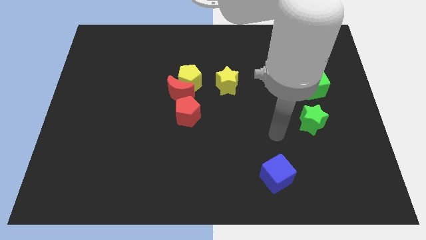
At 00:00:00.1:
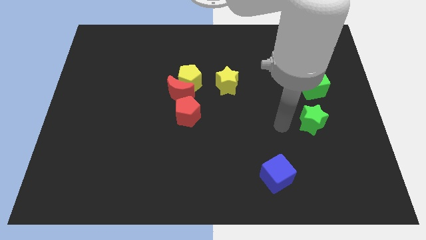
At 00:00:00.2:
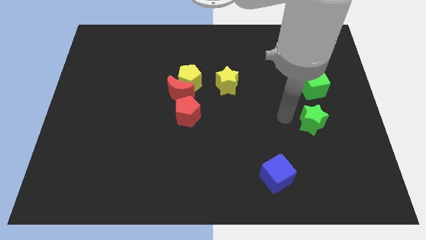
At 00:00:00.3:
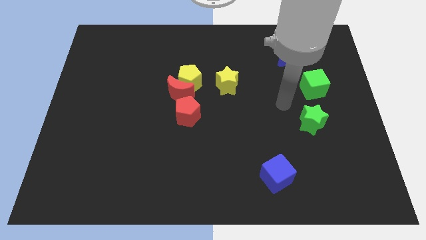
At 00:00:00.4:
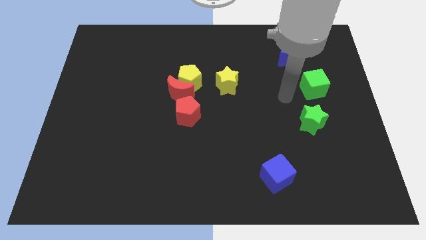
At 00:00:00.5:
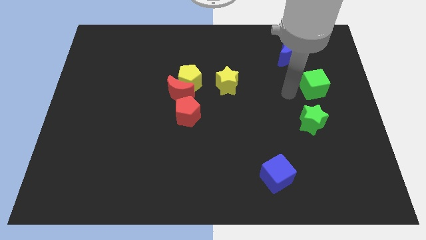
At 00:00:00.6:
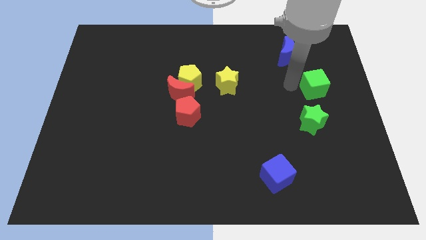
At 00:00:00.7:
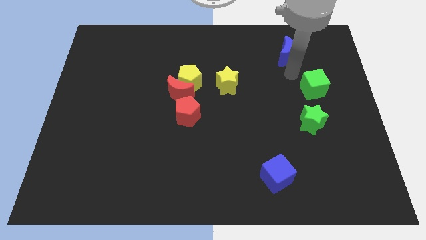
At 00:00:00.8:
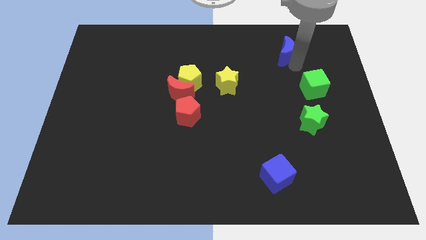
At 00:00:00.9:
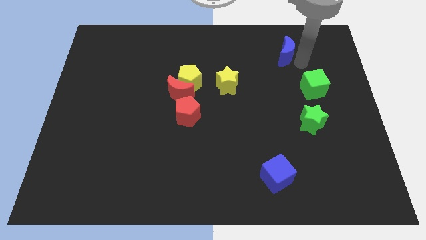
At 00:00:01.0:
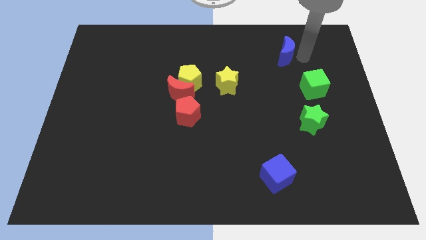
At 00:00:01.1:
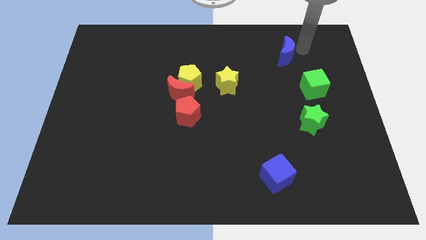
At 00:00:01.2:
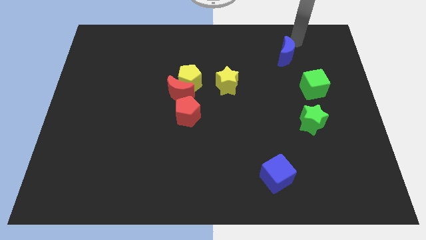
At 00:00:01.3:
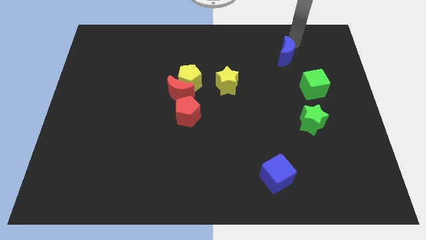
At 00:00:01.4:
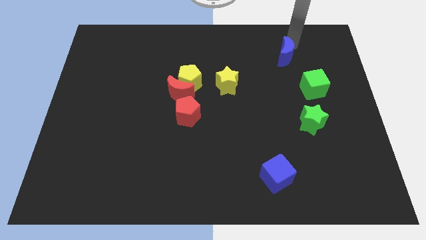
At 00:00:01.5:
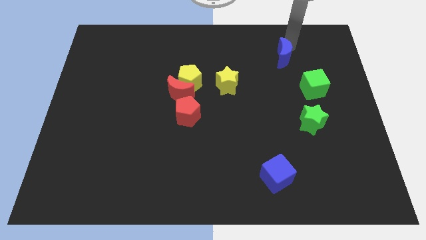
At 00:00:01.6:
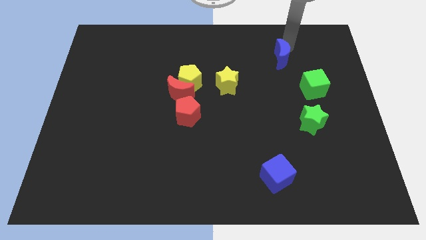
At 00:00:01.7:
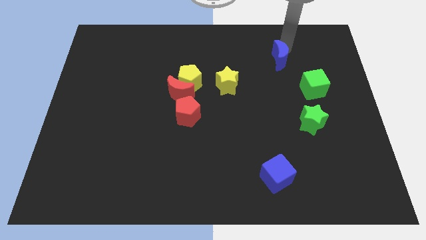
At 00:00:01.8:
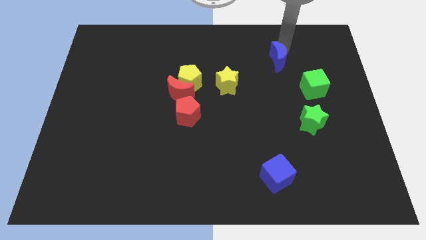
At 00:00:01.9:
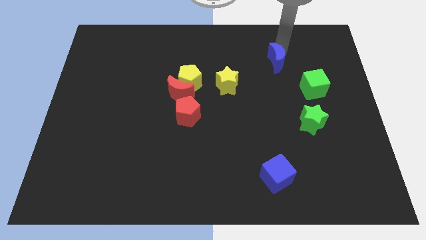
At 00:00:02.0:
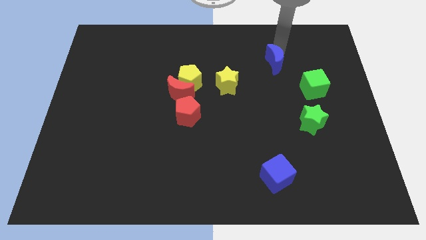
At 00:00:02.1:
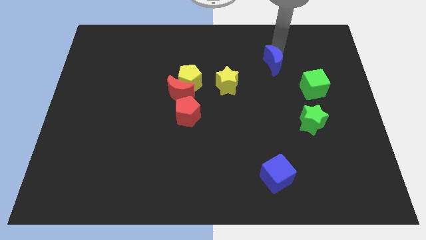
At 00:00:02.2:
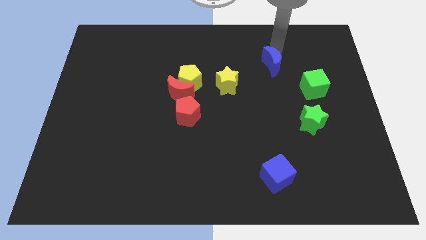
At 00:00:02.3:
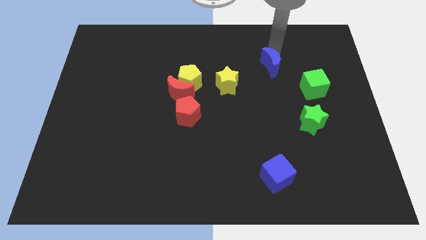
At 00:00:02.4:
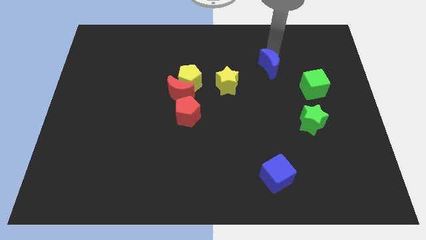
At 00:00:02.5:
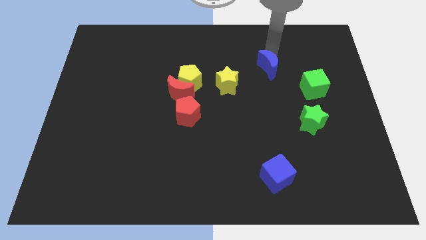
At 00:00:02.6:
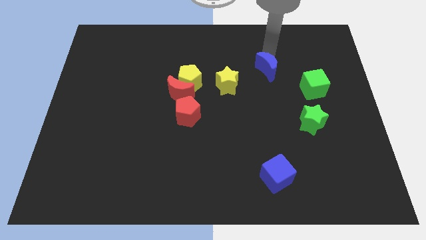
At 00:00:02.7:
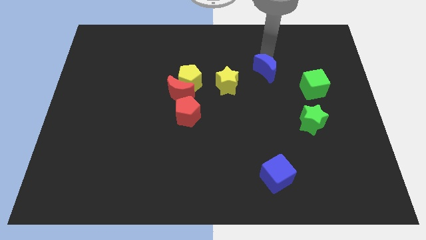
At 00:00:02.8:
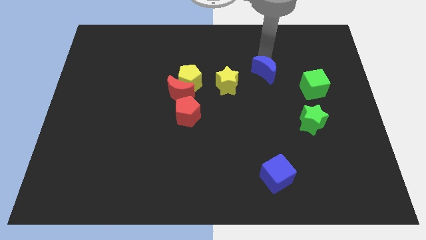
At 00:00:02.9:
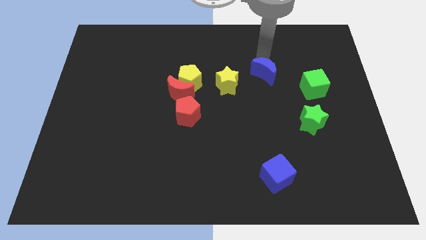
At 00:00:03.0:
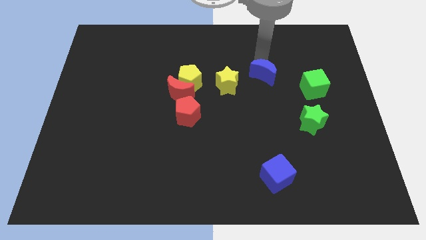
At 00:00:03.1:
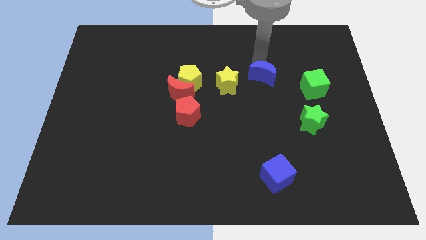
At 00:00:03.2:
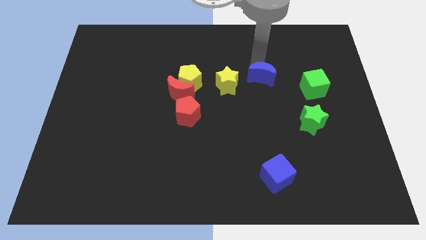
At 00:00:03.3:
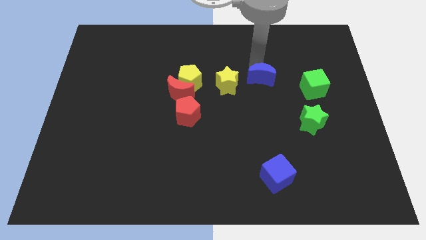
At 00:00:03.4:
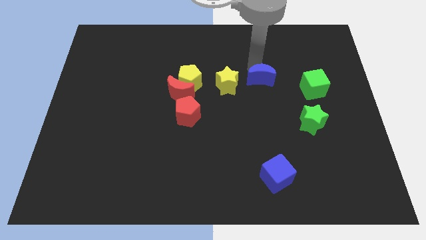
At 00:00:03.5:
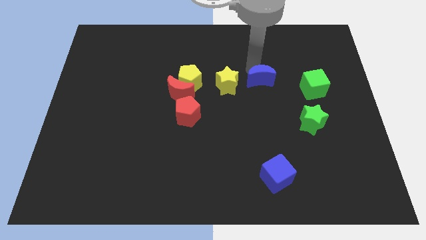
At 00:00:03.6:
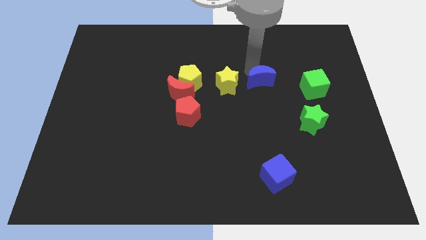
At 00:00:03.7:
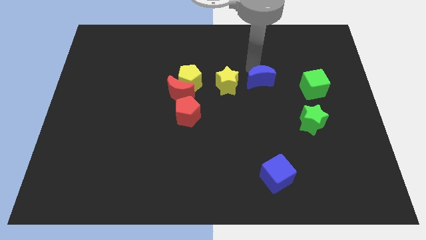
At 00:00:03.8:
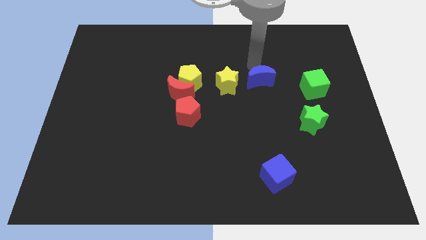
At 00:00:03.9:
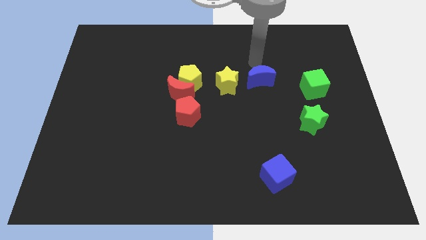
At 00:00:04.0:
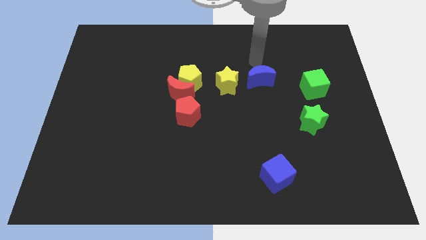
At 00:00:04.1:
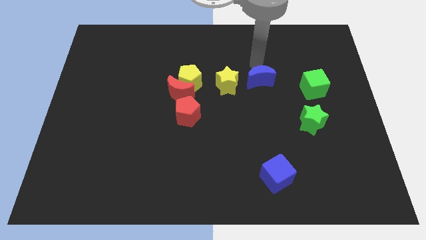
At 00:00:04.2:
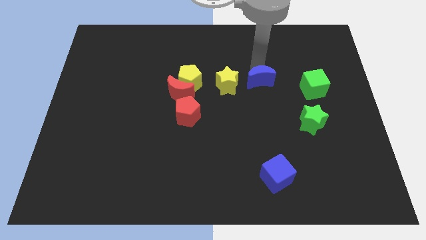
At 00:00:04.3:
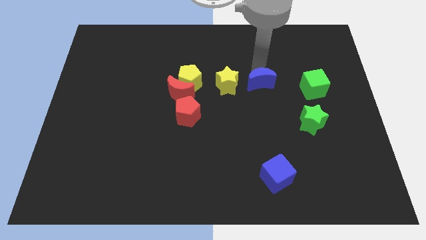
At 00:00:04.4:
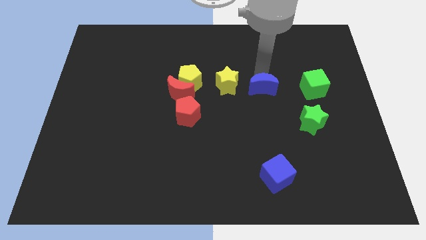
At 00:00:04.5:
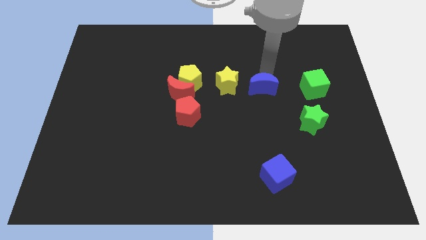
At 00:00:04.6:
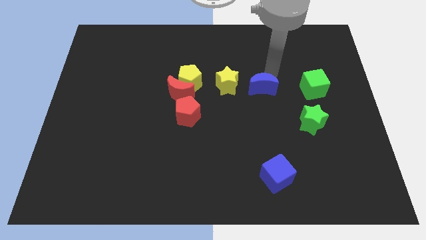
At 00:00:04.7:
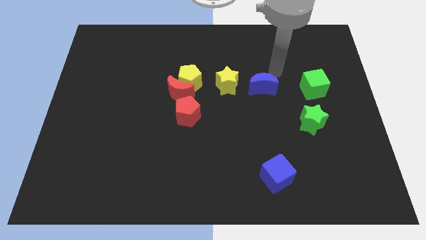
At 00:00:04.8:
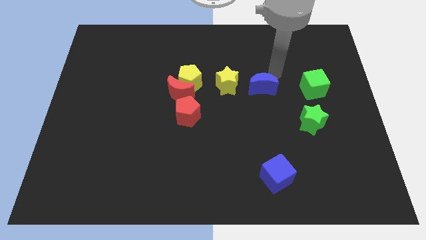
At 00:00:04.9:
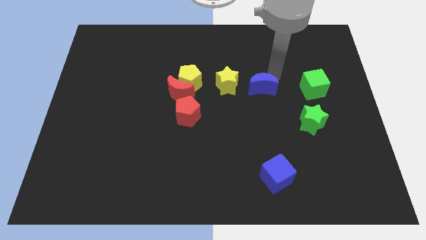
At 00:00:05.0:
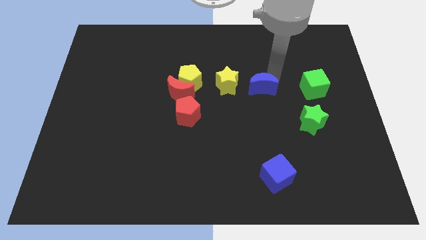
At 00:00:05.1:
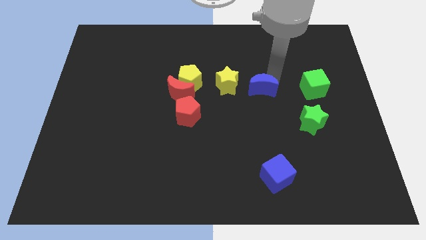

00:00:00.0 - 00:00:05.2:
slide the blue moon to the bottom right side of the yellow star

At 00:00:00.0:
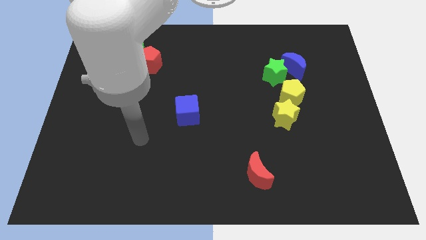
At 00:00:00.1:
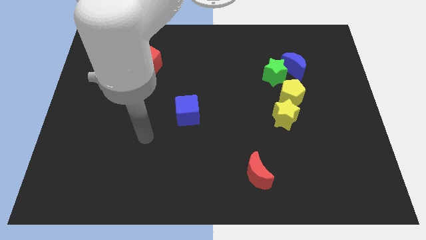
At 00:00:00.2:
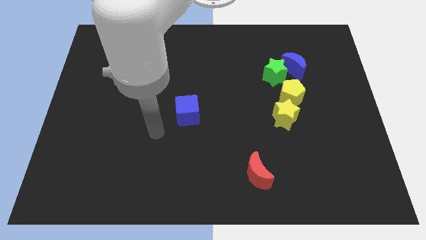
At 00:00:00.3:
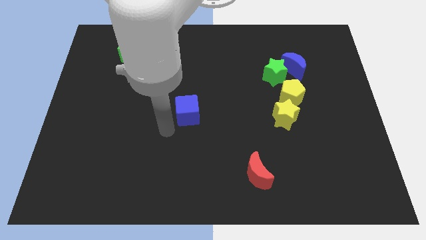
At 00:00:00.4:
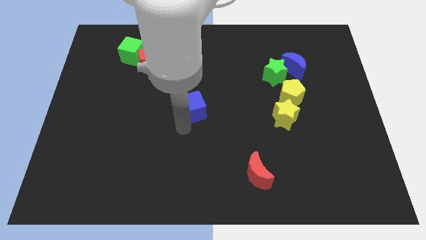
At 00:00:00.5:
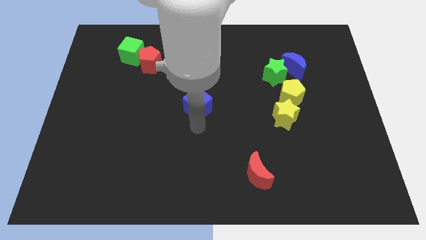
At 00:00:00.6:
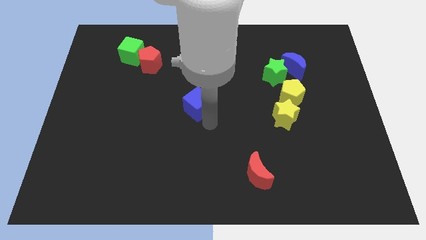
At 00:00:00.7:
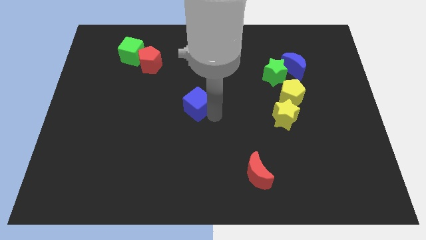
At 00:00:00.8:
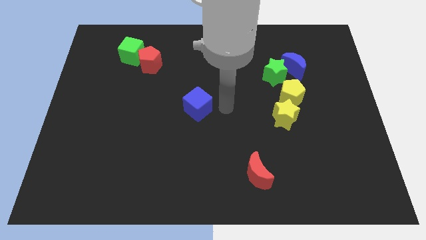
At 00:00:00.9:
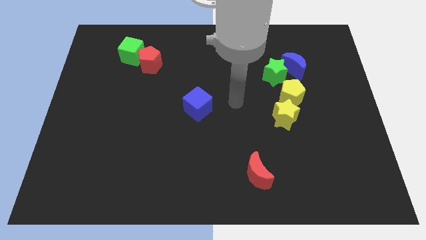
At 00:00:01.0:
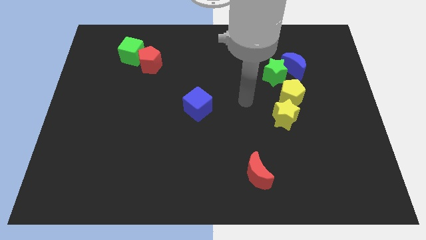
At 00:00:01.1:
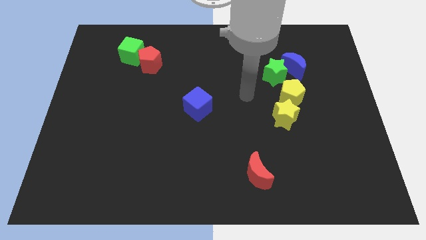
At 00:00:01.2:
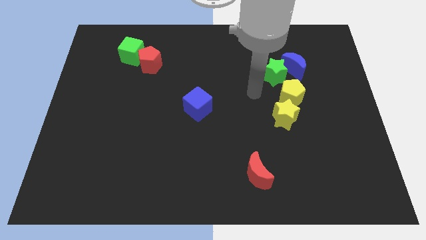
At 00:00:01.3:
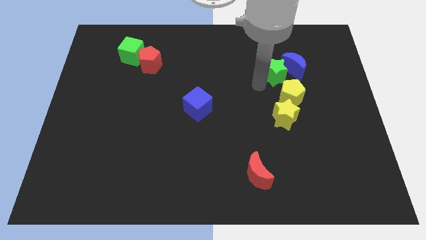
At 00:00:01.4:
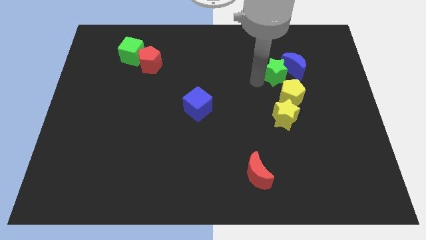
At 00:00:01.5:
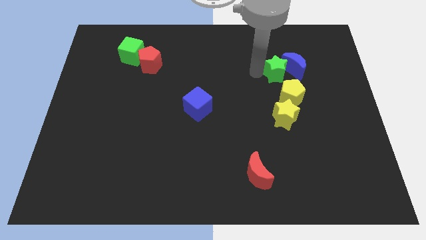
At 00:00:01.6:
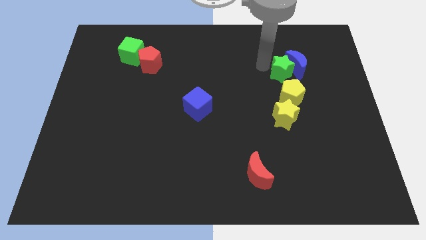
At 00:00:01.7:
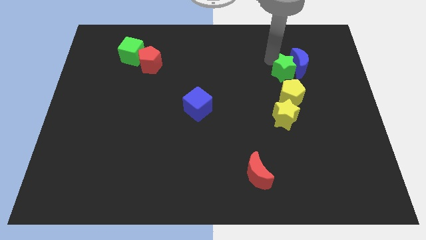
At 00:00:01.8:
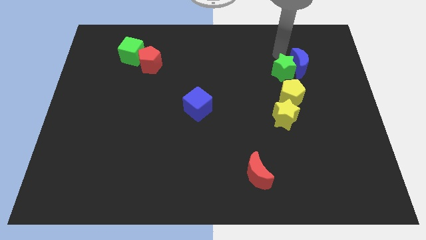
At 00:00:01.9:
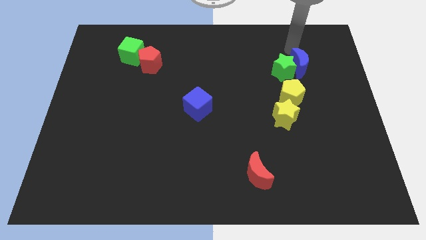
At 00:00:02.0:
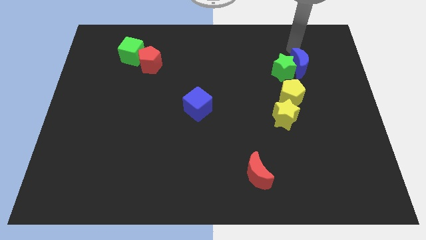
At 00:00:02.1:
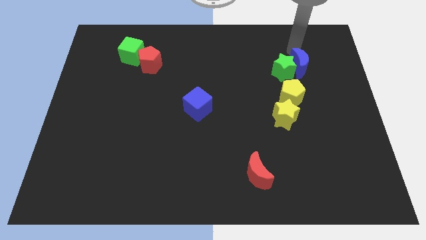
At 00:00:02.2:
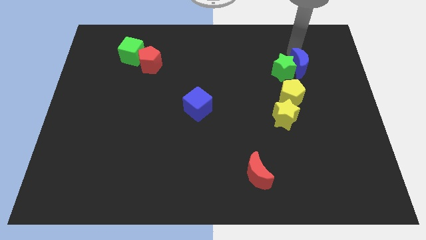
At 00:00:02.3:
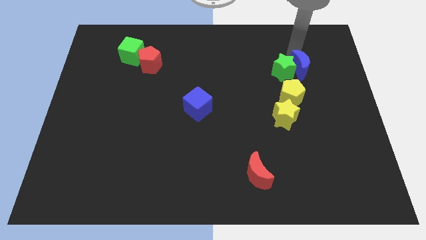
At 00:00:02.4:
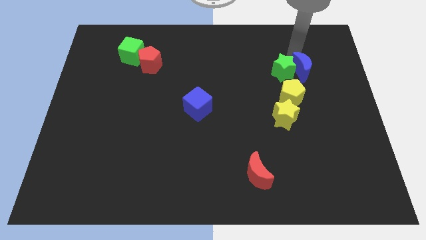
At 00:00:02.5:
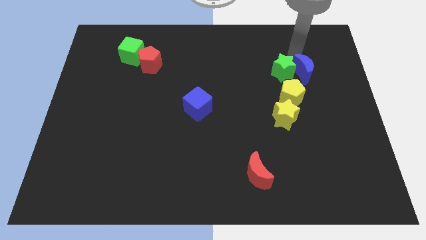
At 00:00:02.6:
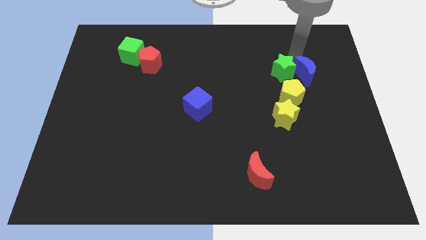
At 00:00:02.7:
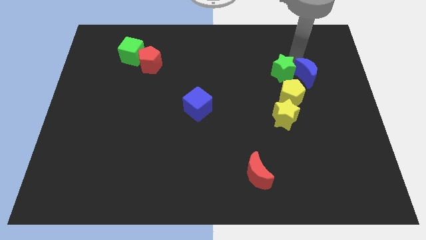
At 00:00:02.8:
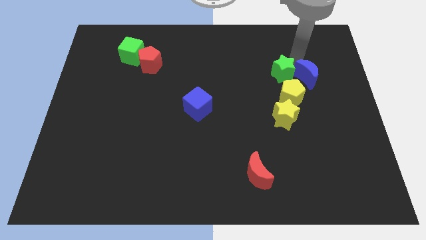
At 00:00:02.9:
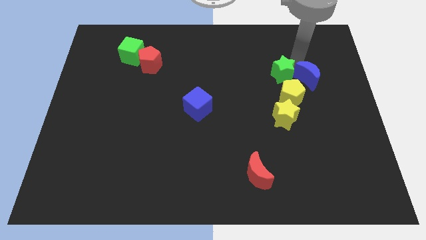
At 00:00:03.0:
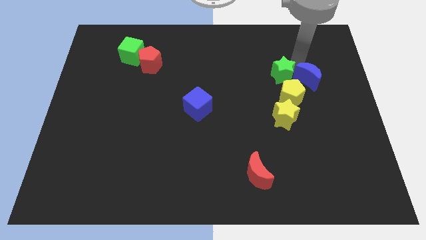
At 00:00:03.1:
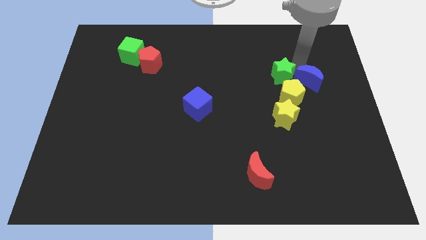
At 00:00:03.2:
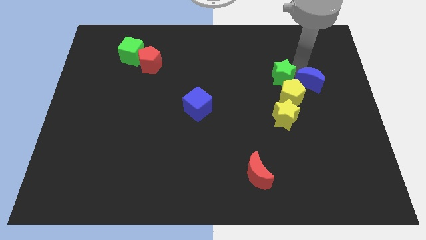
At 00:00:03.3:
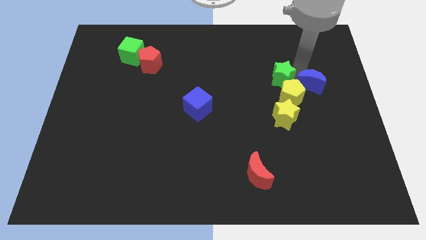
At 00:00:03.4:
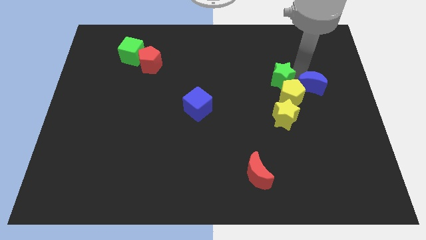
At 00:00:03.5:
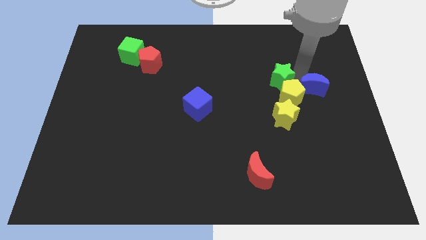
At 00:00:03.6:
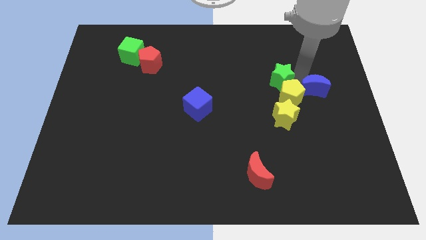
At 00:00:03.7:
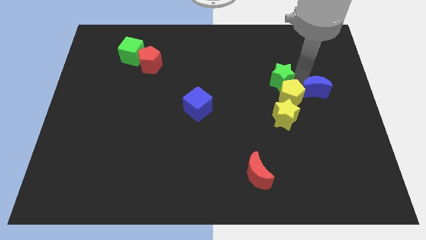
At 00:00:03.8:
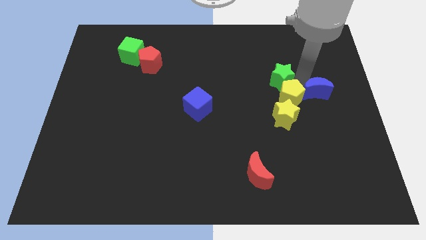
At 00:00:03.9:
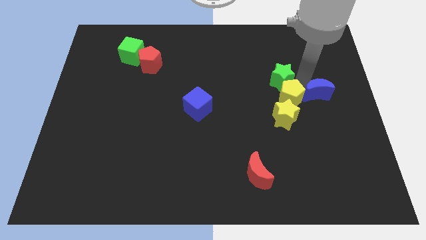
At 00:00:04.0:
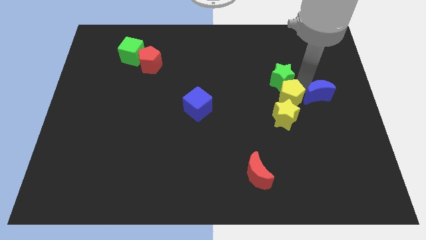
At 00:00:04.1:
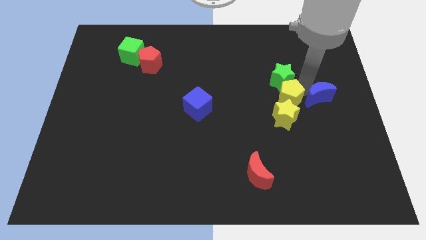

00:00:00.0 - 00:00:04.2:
slide the blue moon to the bottom right side of the yellow pentagon
